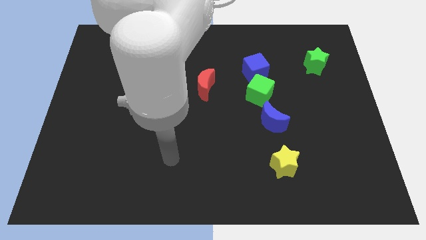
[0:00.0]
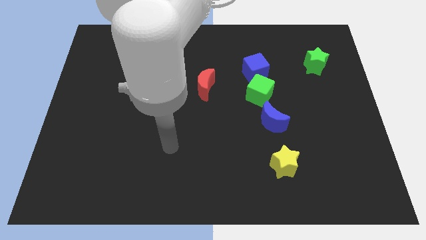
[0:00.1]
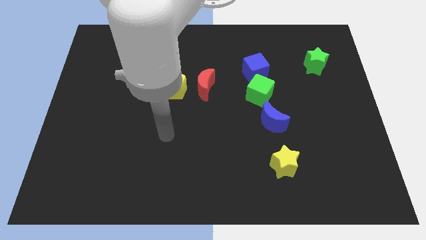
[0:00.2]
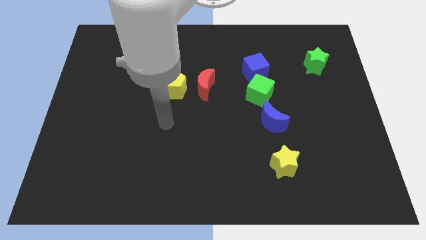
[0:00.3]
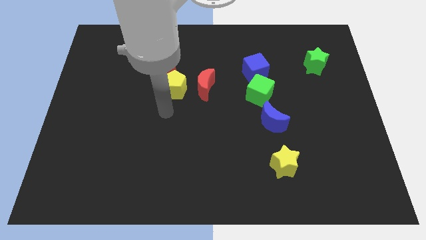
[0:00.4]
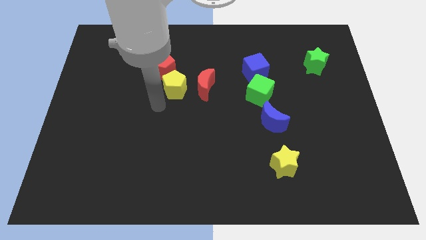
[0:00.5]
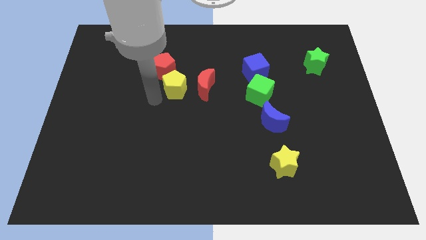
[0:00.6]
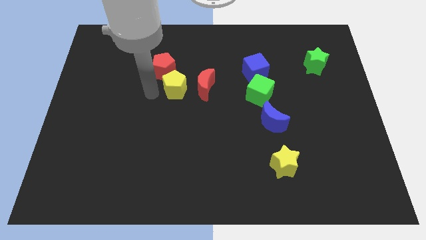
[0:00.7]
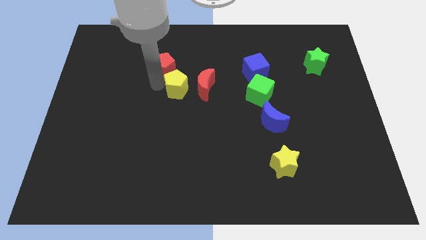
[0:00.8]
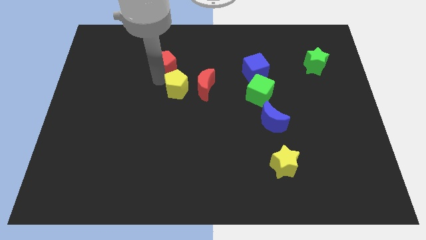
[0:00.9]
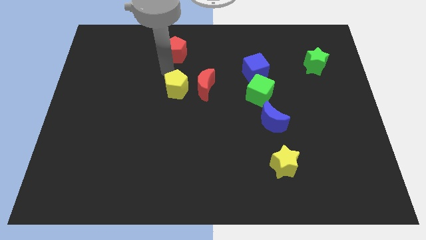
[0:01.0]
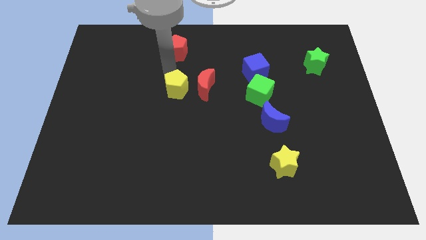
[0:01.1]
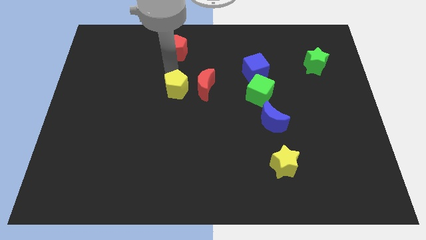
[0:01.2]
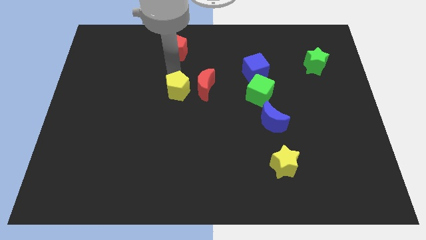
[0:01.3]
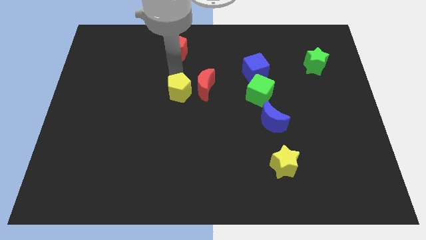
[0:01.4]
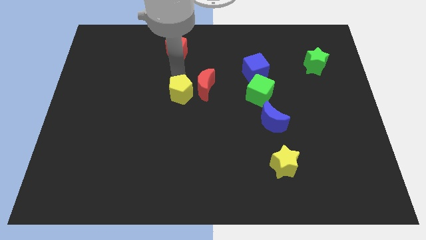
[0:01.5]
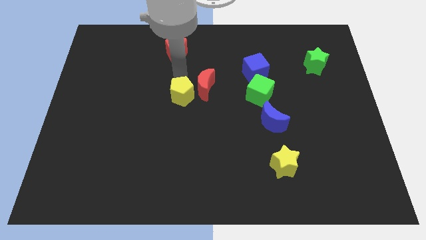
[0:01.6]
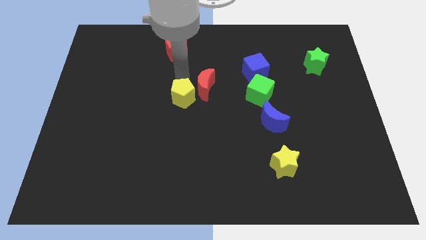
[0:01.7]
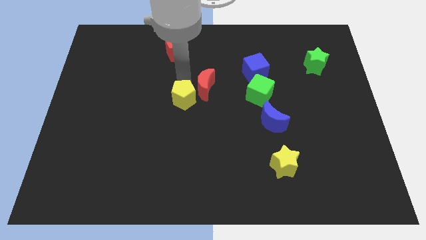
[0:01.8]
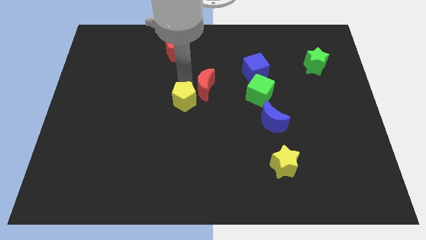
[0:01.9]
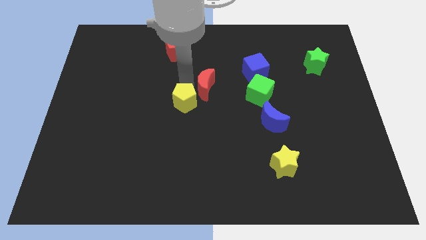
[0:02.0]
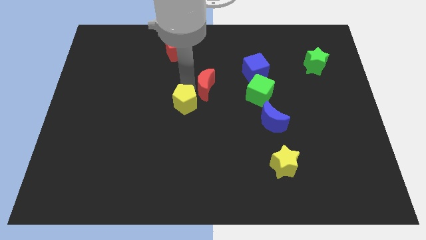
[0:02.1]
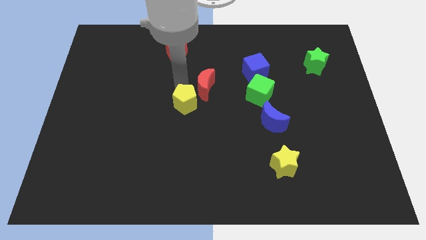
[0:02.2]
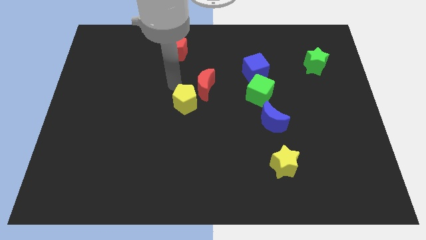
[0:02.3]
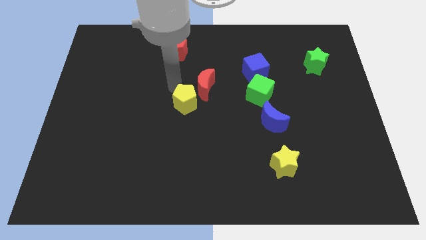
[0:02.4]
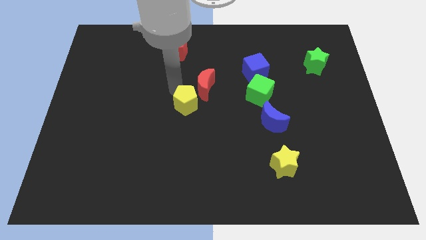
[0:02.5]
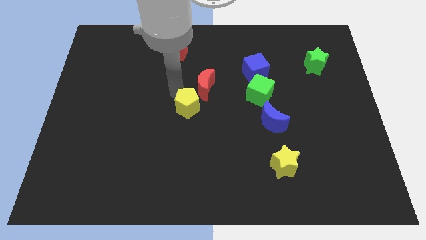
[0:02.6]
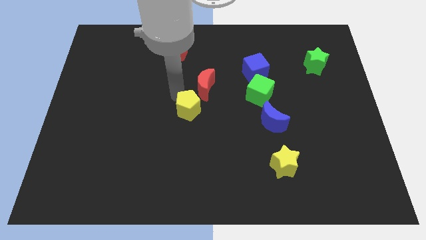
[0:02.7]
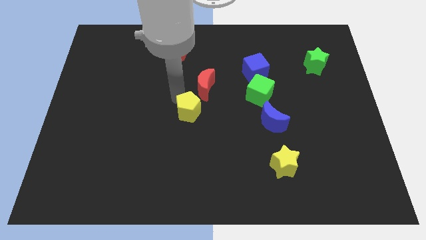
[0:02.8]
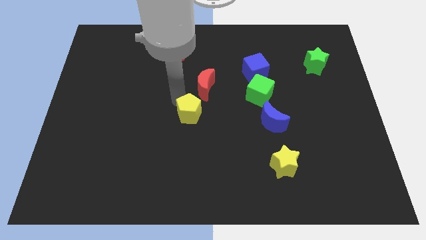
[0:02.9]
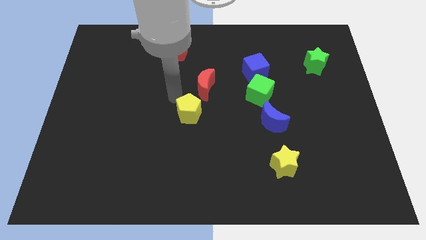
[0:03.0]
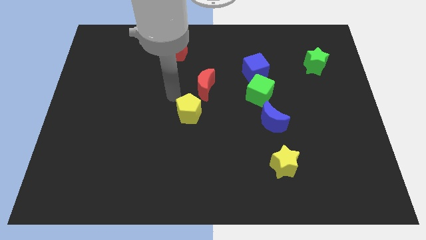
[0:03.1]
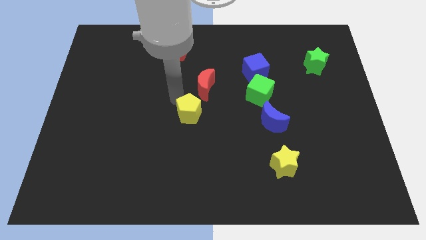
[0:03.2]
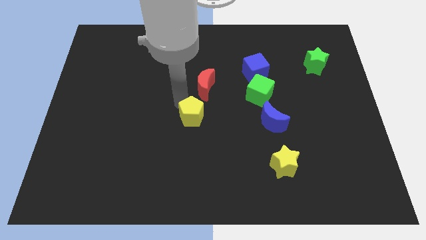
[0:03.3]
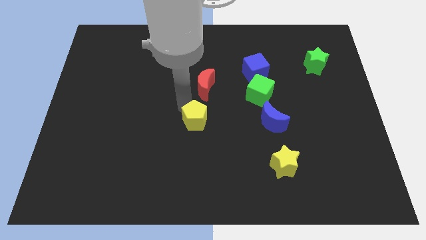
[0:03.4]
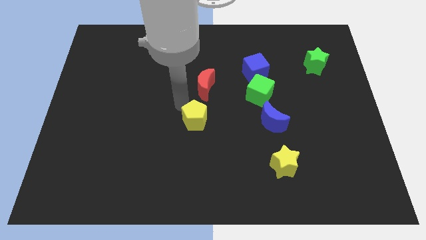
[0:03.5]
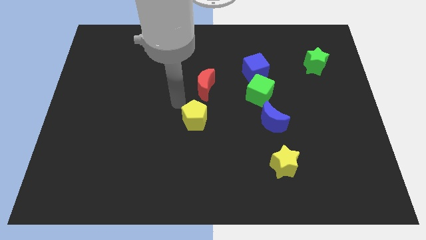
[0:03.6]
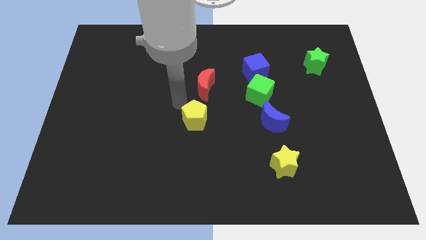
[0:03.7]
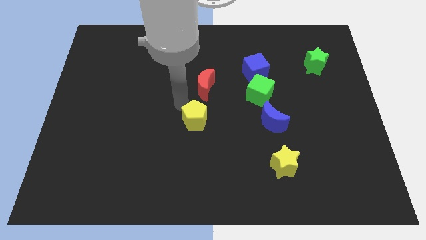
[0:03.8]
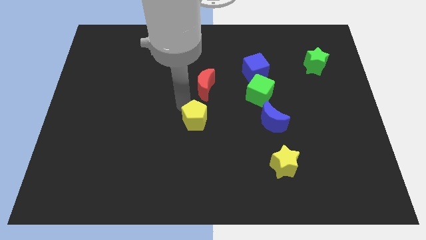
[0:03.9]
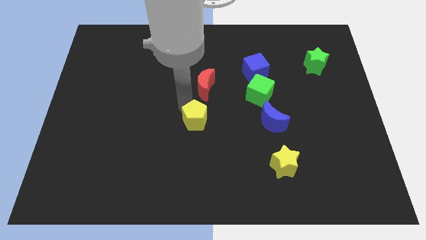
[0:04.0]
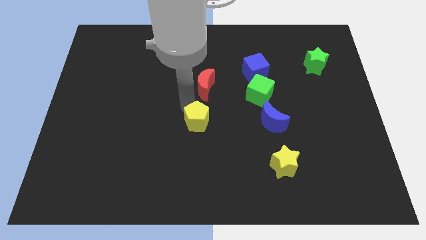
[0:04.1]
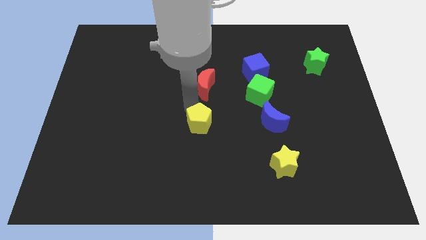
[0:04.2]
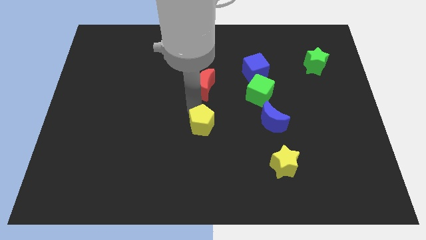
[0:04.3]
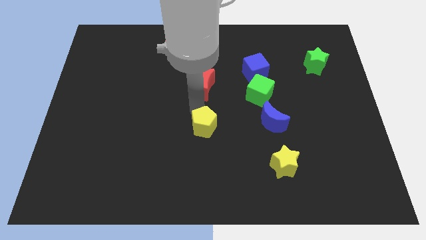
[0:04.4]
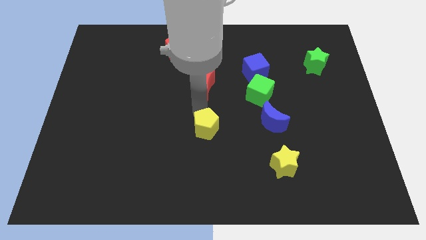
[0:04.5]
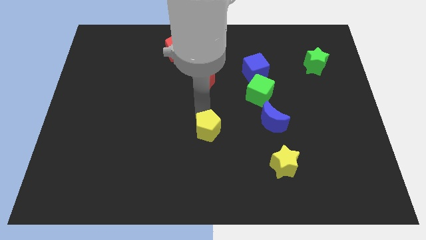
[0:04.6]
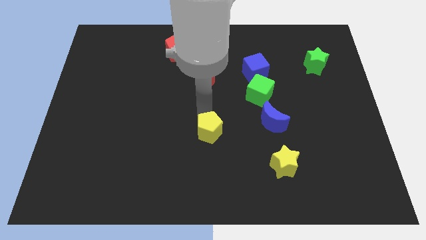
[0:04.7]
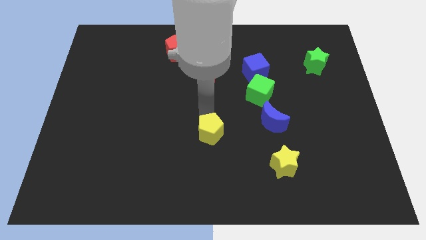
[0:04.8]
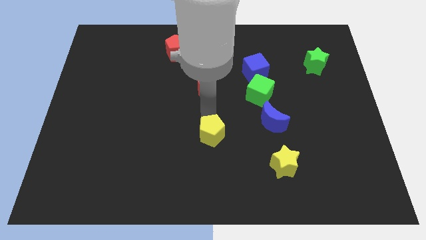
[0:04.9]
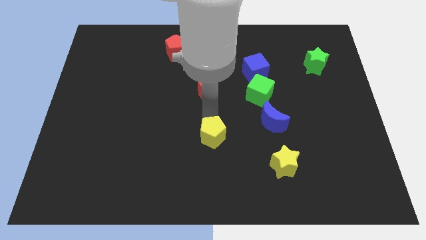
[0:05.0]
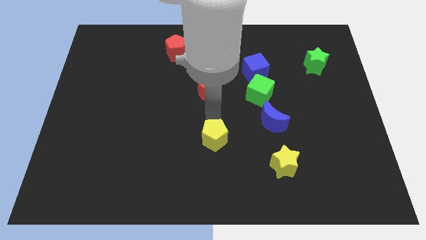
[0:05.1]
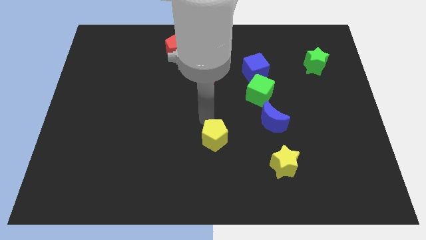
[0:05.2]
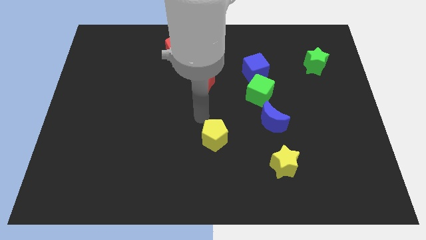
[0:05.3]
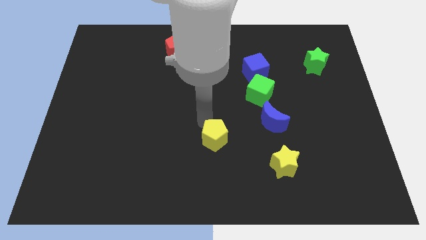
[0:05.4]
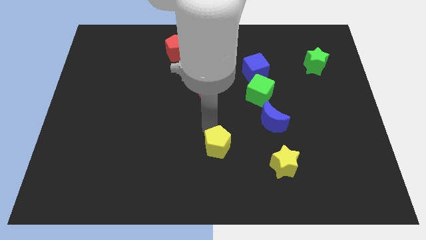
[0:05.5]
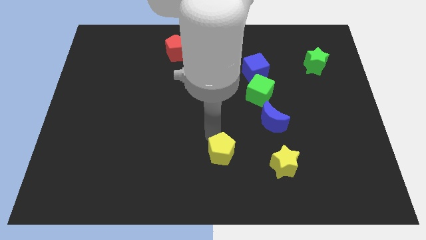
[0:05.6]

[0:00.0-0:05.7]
move the yellow pentagon left of the yellow star

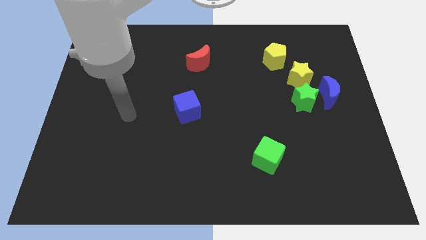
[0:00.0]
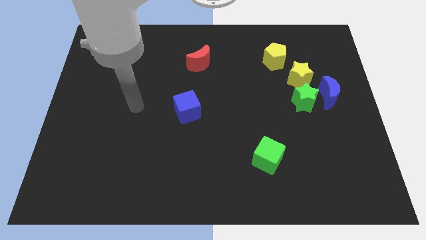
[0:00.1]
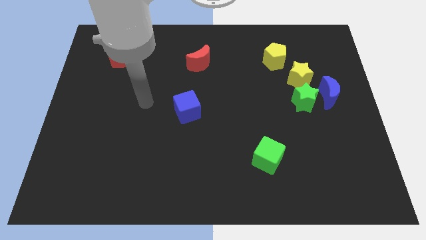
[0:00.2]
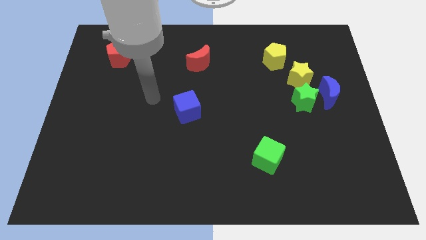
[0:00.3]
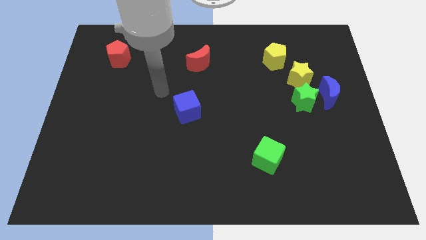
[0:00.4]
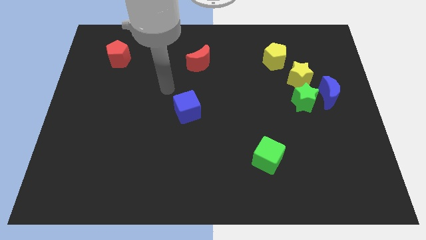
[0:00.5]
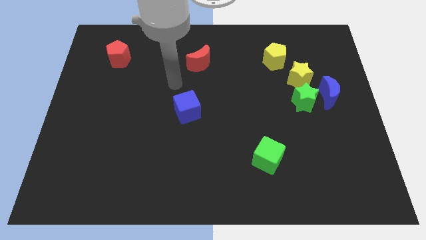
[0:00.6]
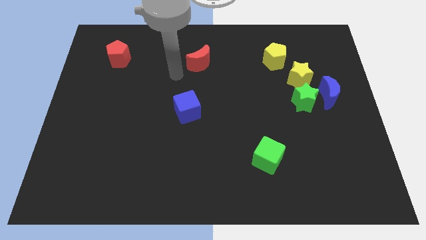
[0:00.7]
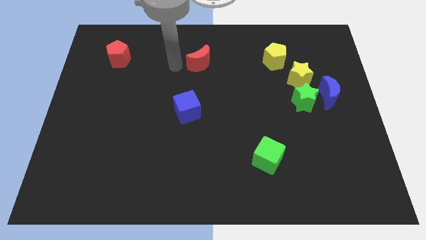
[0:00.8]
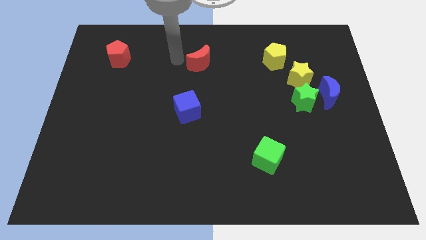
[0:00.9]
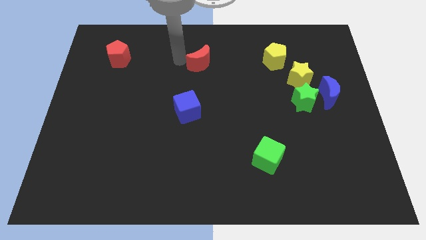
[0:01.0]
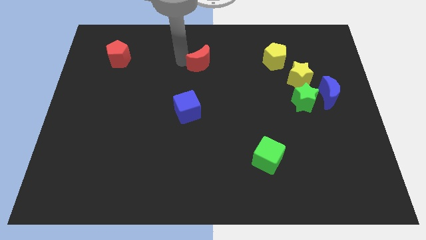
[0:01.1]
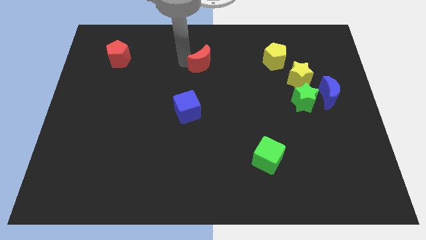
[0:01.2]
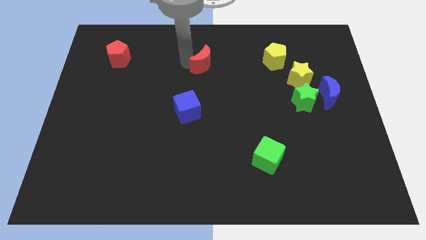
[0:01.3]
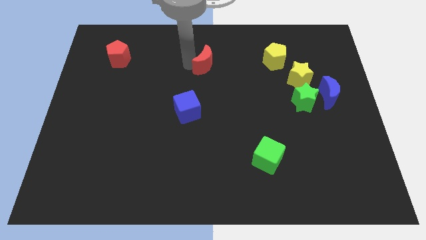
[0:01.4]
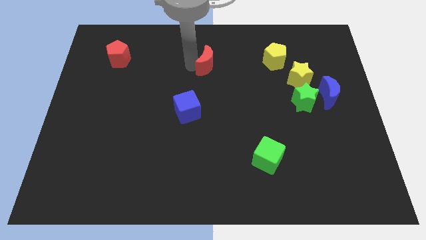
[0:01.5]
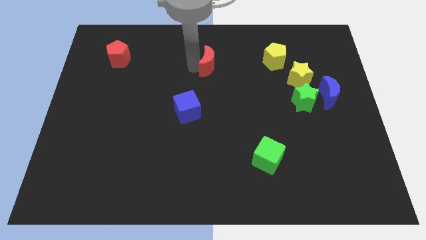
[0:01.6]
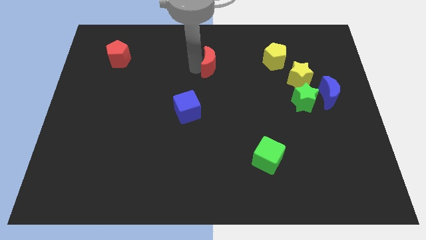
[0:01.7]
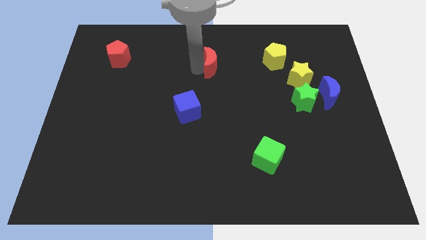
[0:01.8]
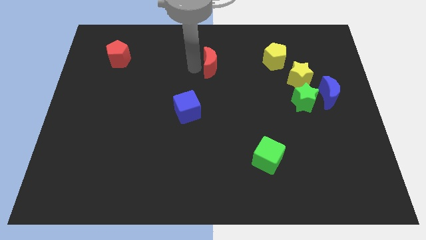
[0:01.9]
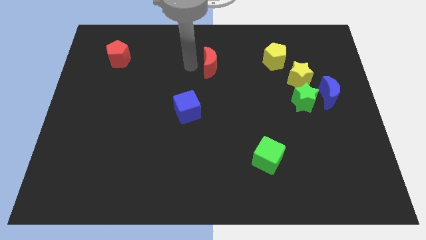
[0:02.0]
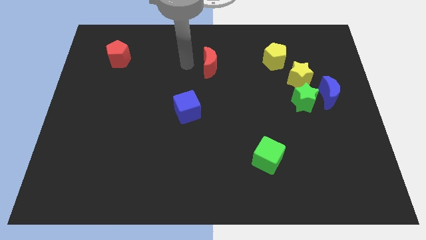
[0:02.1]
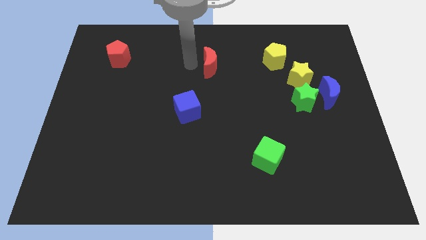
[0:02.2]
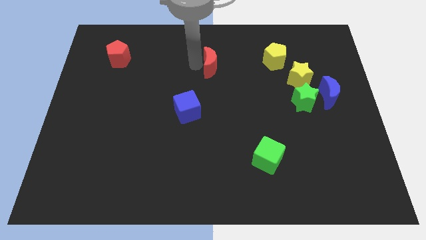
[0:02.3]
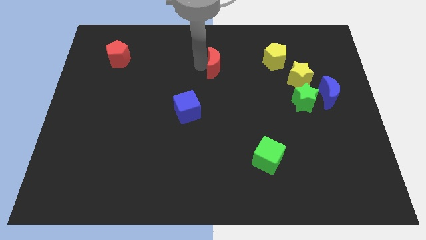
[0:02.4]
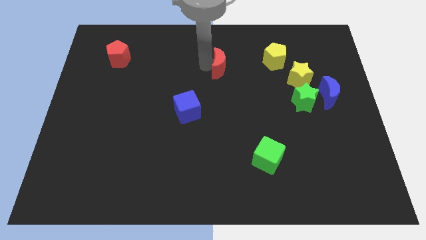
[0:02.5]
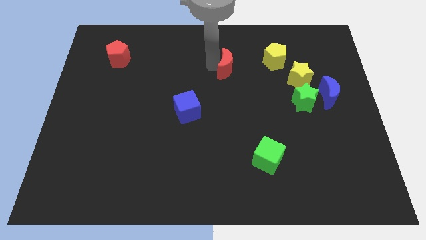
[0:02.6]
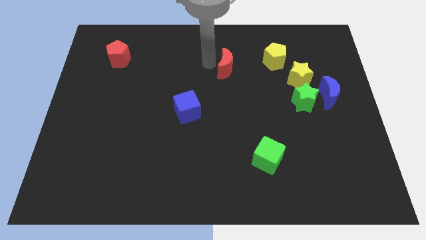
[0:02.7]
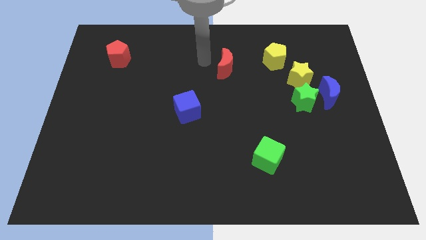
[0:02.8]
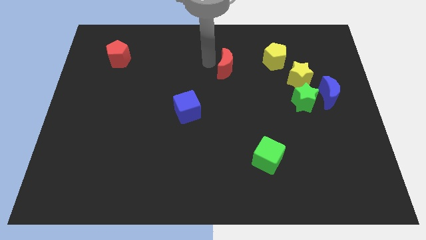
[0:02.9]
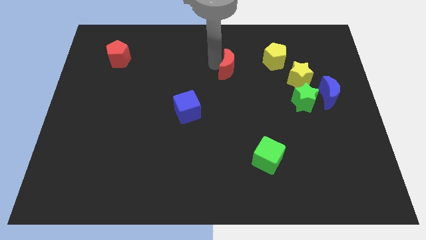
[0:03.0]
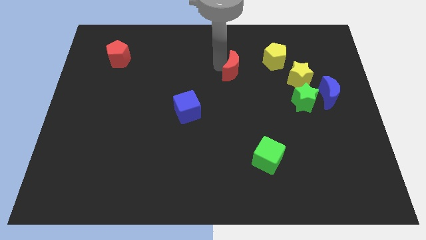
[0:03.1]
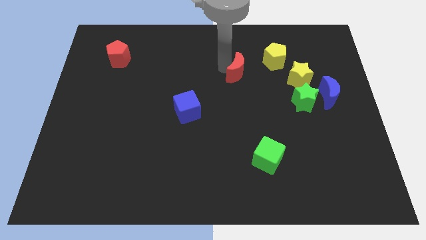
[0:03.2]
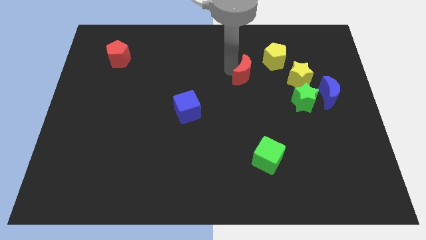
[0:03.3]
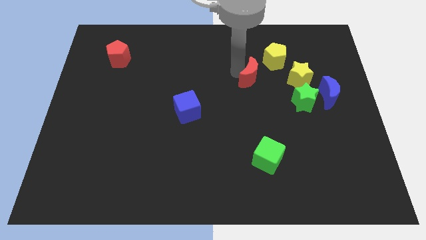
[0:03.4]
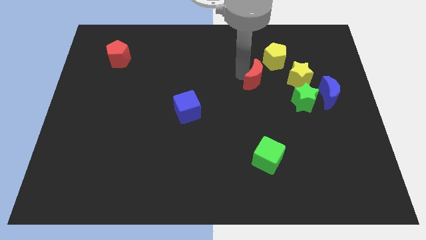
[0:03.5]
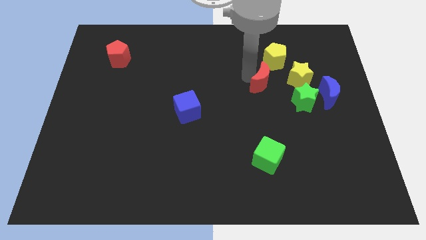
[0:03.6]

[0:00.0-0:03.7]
push the red moon diagonally up and to the left of the green star
